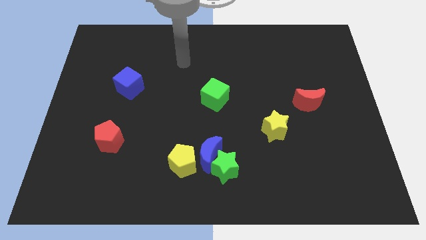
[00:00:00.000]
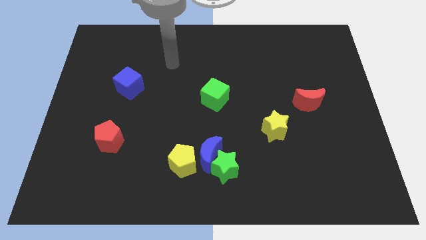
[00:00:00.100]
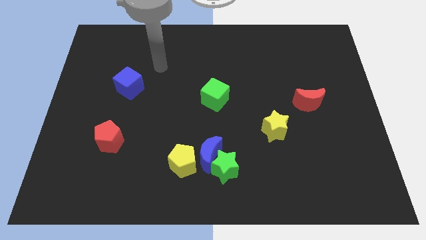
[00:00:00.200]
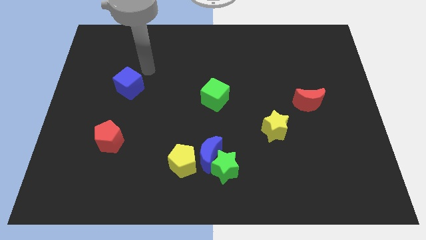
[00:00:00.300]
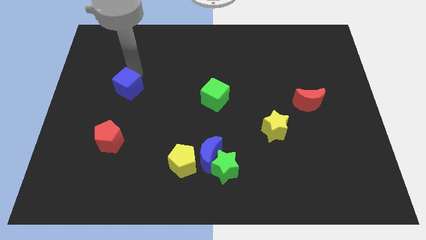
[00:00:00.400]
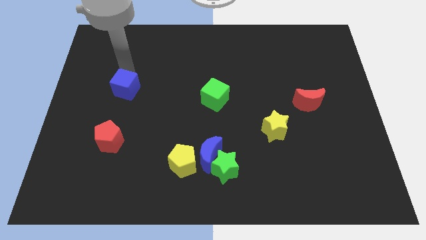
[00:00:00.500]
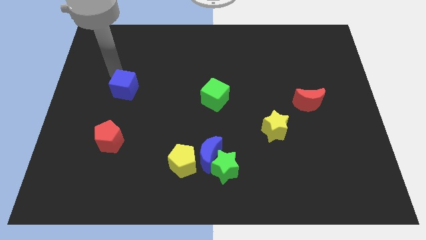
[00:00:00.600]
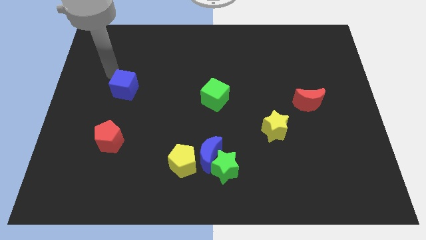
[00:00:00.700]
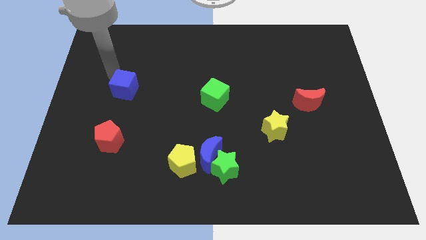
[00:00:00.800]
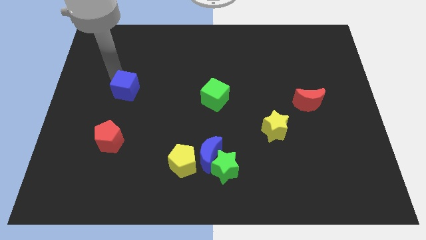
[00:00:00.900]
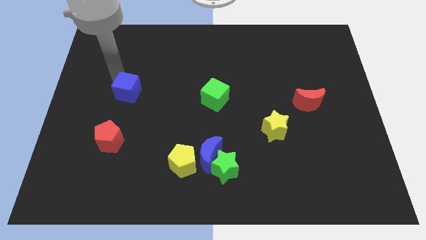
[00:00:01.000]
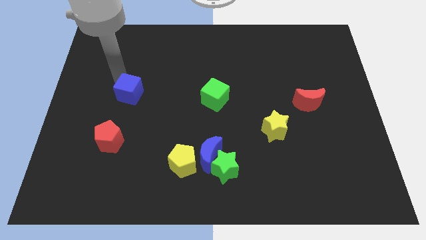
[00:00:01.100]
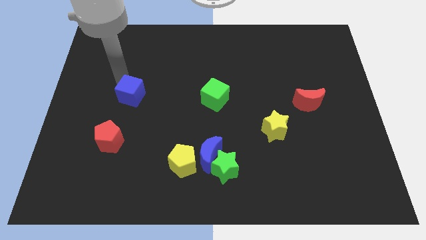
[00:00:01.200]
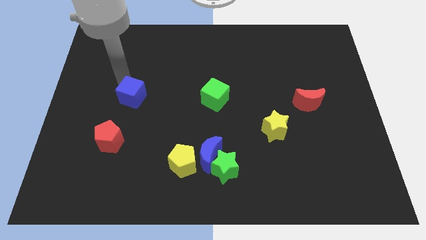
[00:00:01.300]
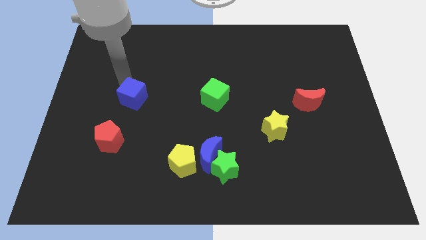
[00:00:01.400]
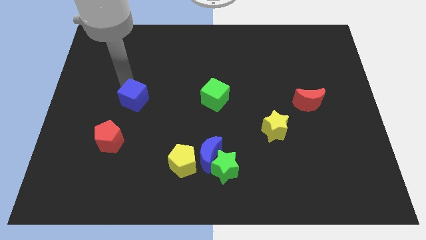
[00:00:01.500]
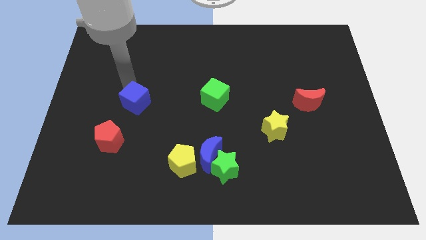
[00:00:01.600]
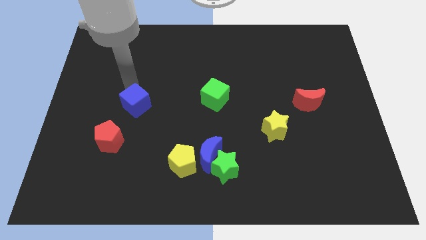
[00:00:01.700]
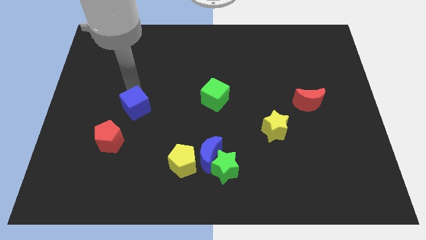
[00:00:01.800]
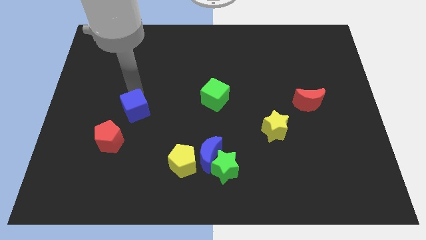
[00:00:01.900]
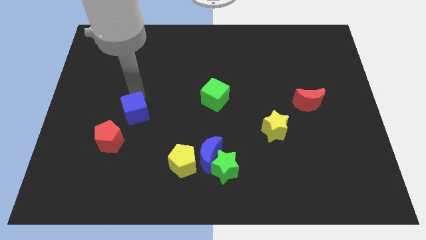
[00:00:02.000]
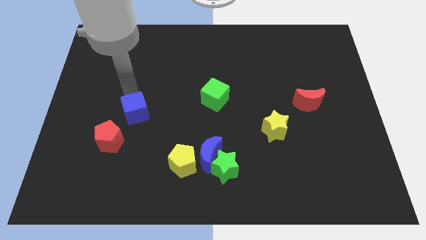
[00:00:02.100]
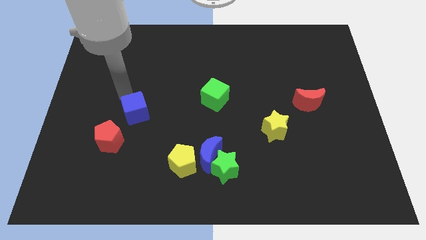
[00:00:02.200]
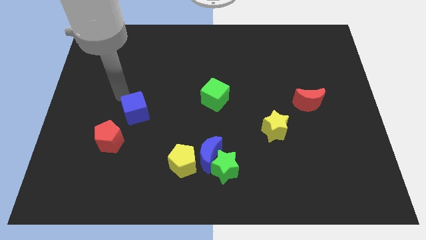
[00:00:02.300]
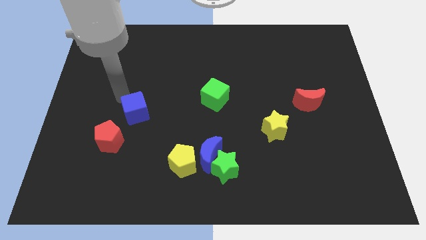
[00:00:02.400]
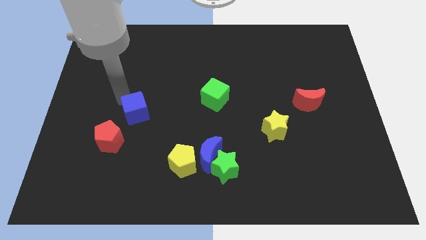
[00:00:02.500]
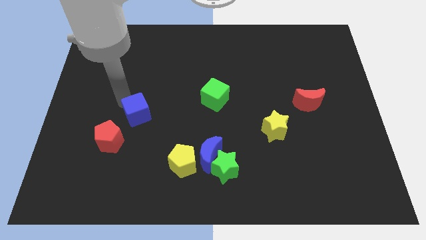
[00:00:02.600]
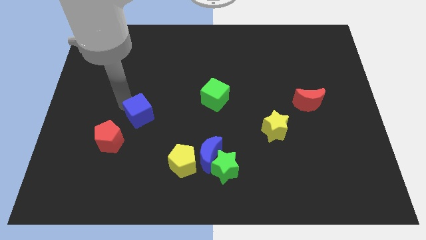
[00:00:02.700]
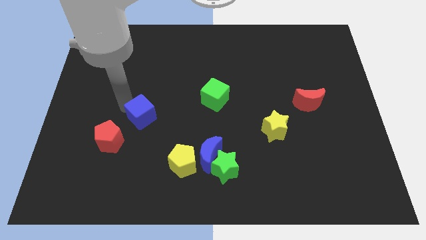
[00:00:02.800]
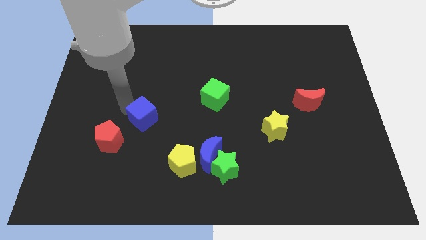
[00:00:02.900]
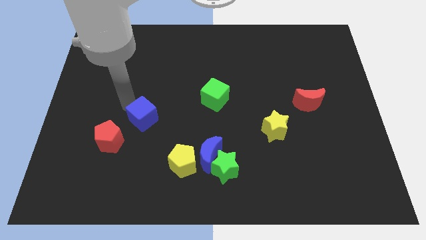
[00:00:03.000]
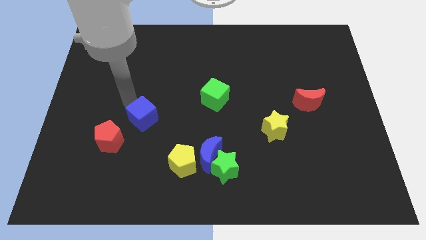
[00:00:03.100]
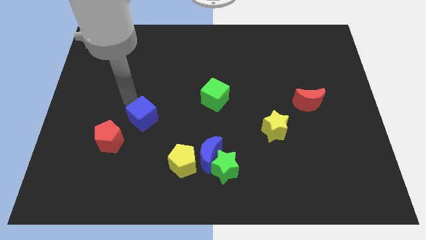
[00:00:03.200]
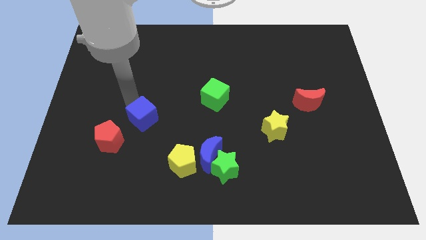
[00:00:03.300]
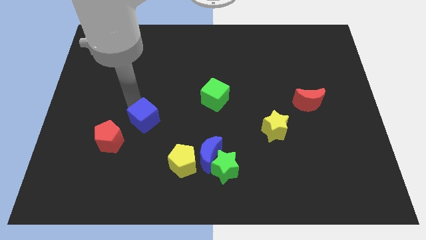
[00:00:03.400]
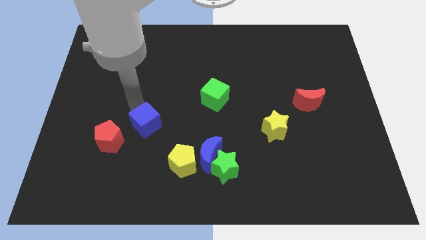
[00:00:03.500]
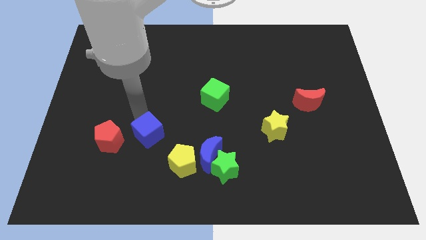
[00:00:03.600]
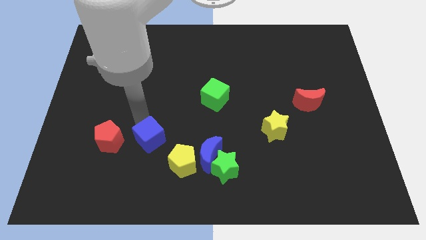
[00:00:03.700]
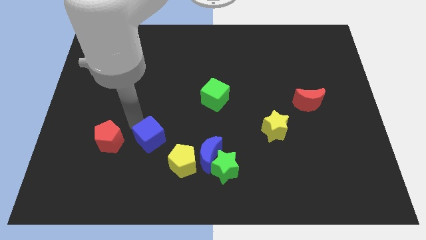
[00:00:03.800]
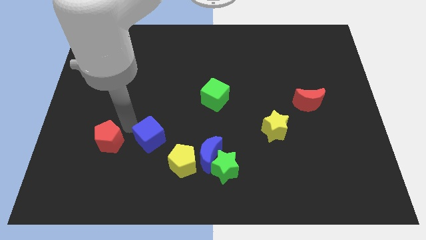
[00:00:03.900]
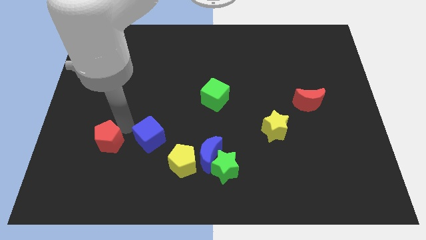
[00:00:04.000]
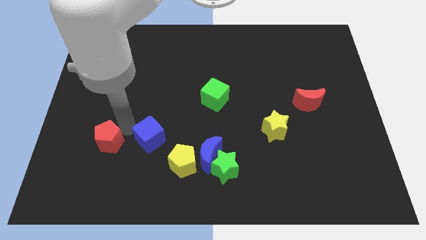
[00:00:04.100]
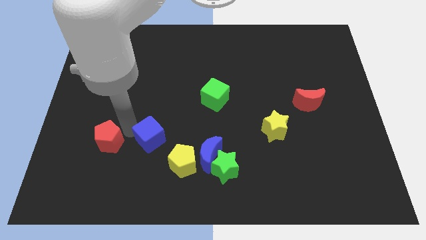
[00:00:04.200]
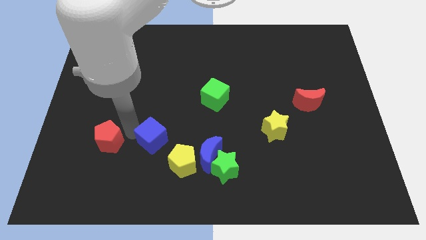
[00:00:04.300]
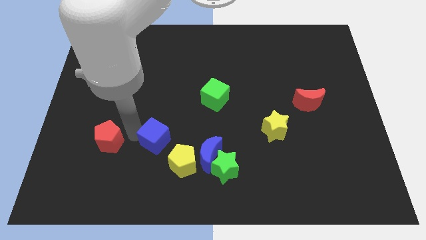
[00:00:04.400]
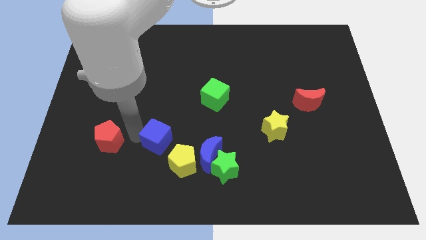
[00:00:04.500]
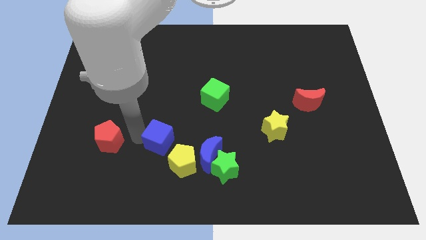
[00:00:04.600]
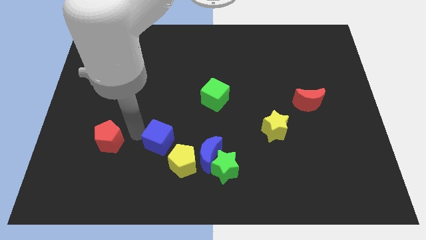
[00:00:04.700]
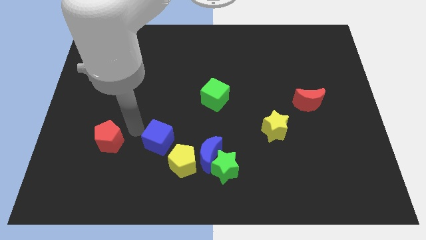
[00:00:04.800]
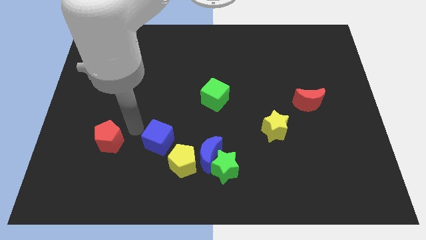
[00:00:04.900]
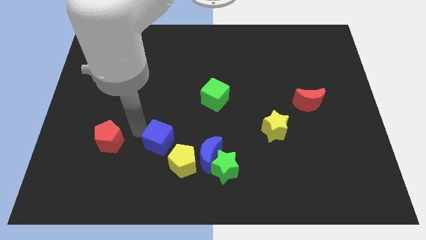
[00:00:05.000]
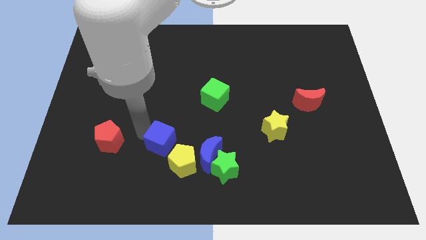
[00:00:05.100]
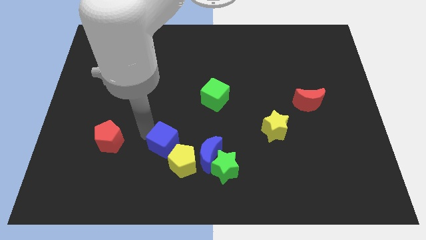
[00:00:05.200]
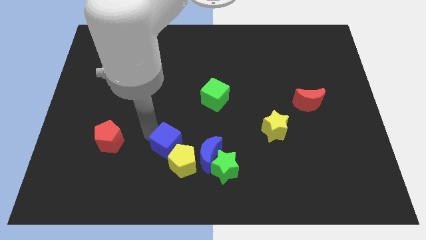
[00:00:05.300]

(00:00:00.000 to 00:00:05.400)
put the blue cube next to the yellow pentagon

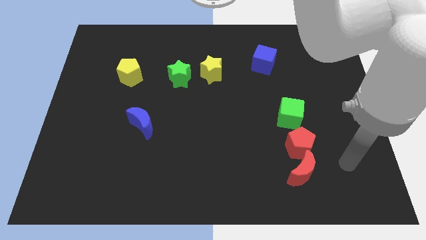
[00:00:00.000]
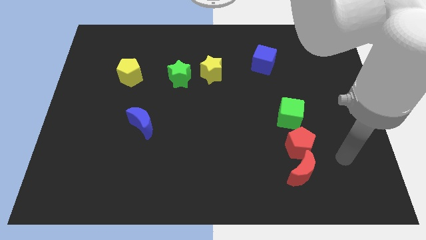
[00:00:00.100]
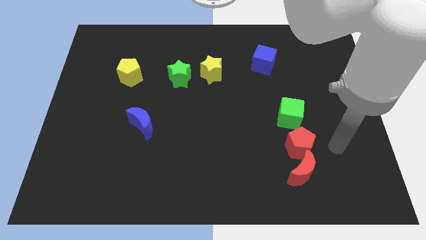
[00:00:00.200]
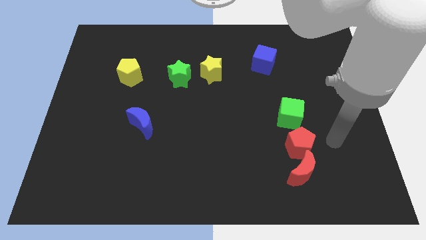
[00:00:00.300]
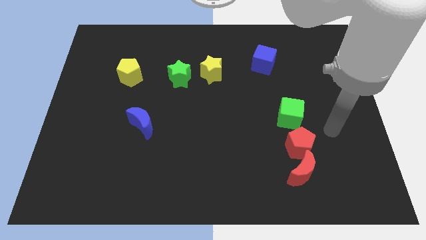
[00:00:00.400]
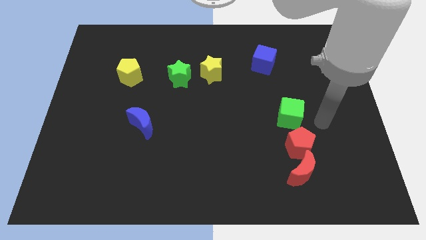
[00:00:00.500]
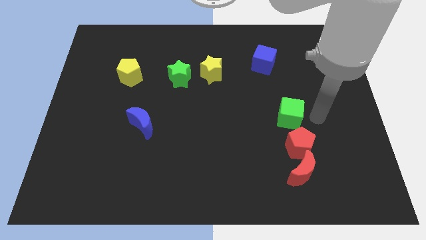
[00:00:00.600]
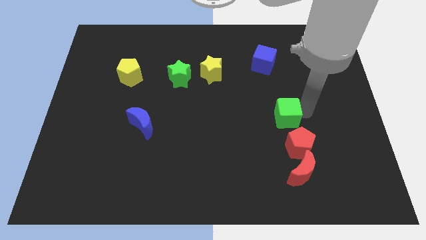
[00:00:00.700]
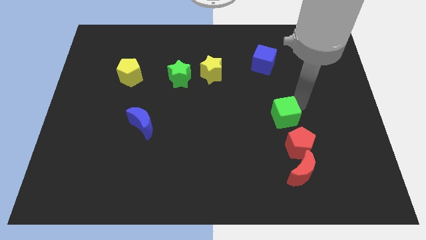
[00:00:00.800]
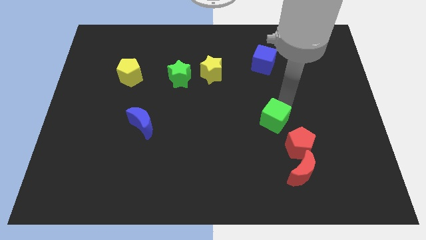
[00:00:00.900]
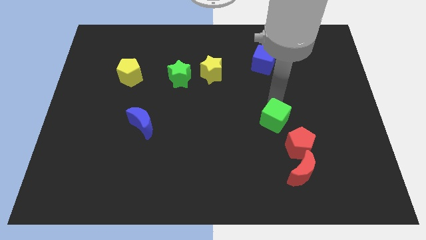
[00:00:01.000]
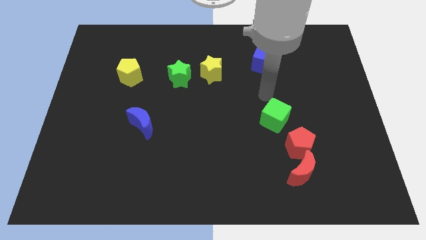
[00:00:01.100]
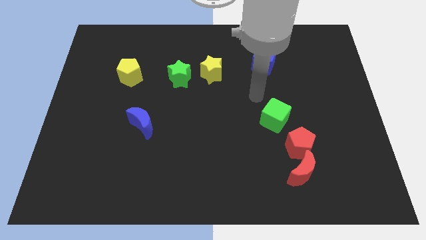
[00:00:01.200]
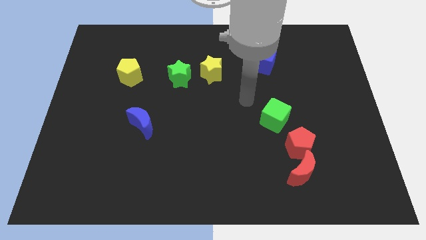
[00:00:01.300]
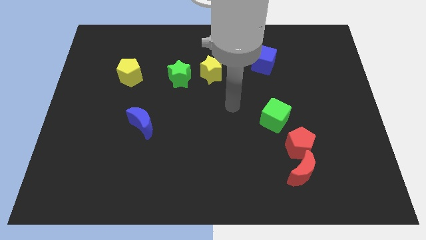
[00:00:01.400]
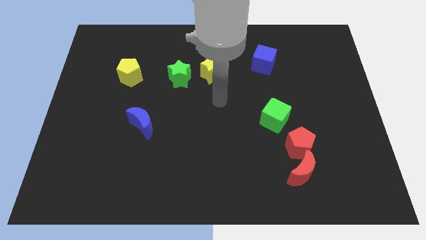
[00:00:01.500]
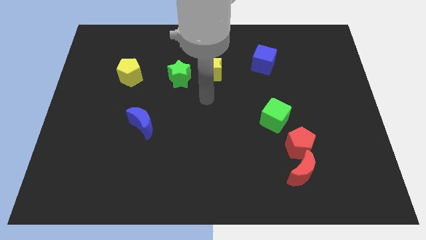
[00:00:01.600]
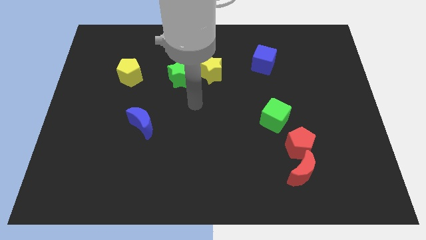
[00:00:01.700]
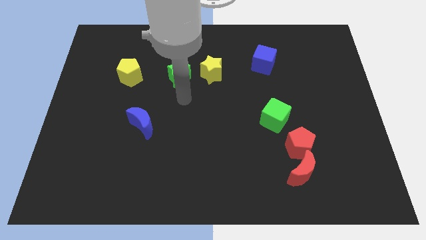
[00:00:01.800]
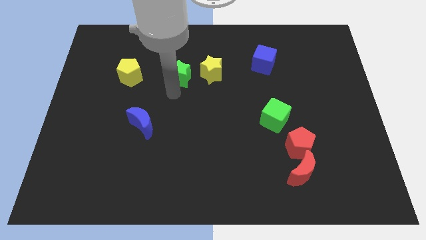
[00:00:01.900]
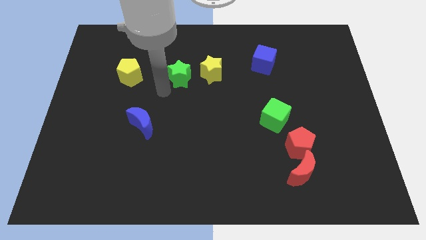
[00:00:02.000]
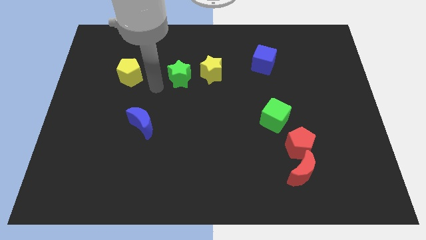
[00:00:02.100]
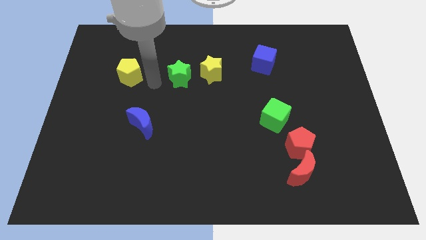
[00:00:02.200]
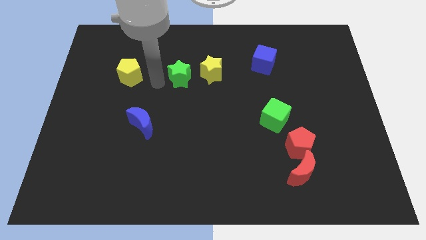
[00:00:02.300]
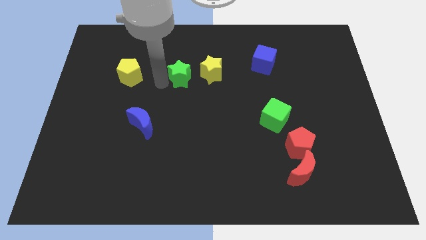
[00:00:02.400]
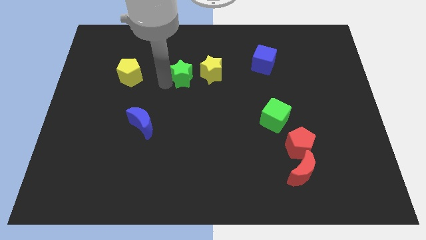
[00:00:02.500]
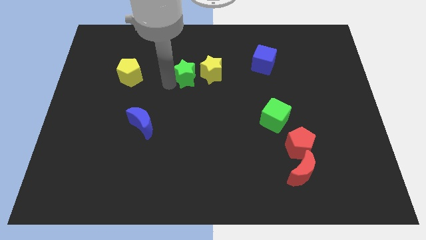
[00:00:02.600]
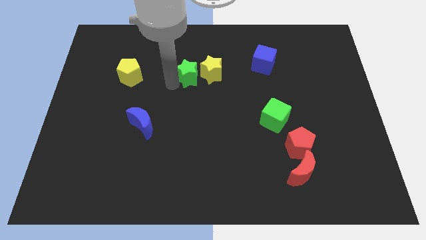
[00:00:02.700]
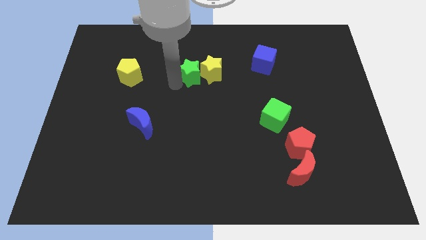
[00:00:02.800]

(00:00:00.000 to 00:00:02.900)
put the green star close to the yellow star
